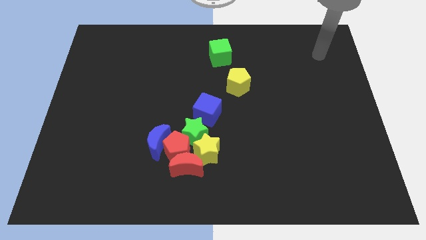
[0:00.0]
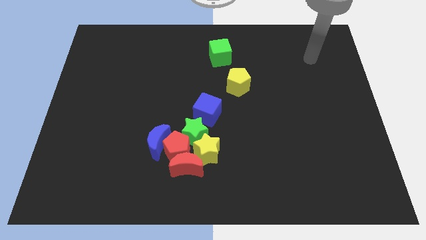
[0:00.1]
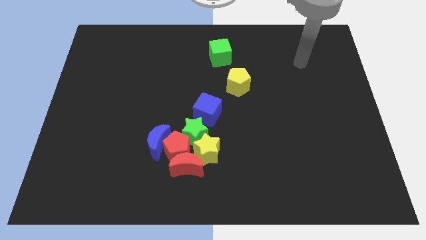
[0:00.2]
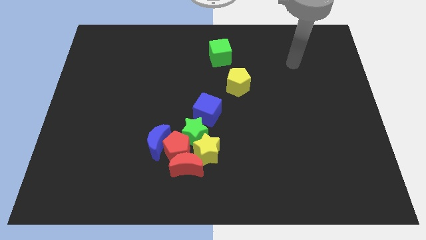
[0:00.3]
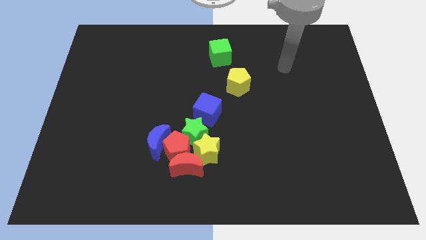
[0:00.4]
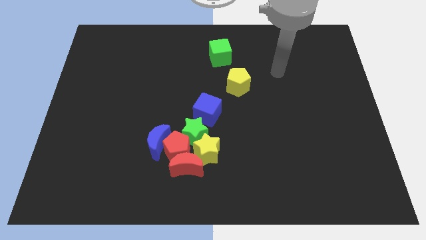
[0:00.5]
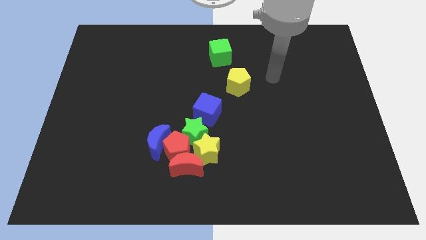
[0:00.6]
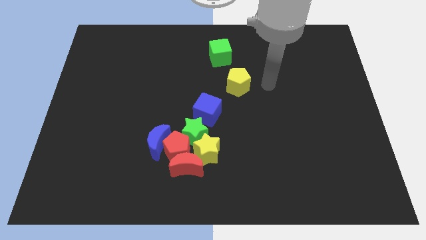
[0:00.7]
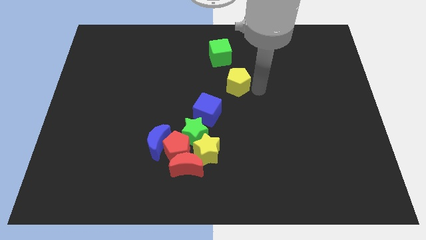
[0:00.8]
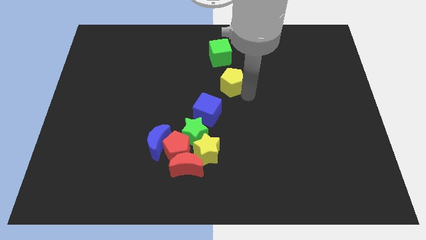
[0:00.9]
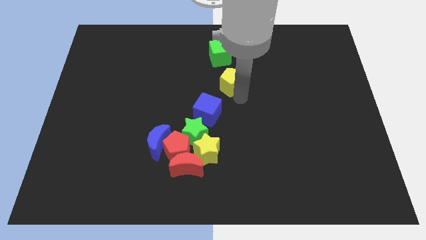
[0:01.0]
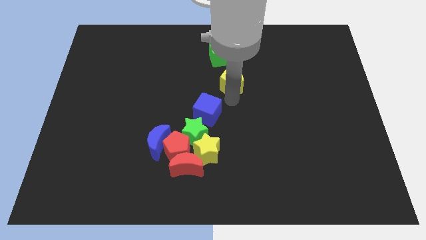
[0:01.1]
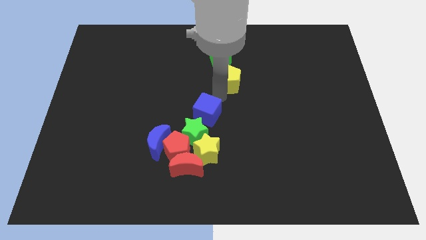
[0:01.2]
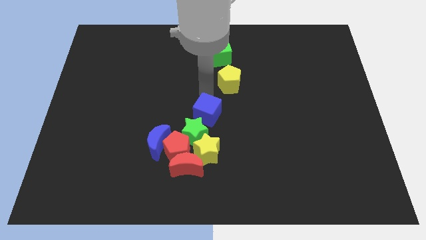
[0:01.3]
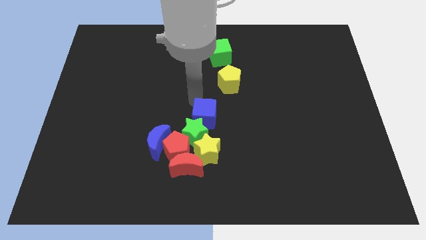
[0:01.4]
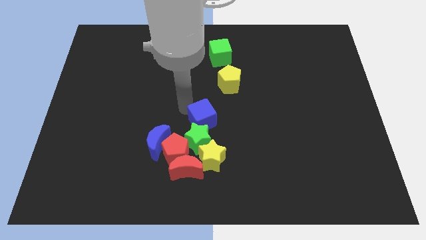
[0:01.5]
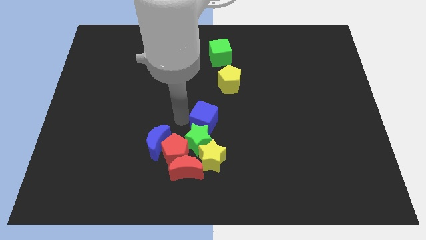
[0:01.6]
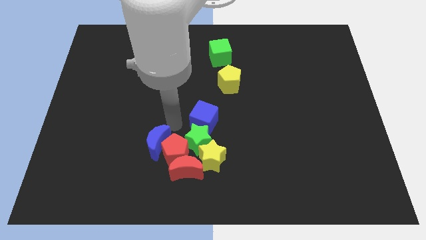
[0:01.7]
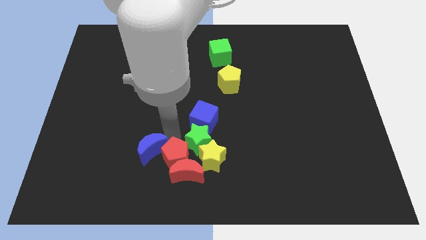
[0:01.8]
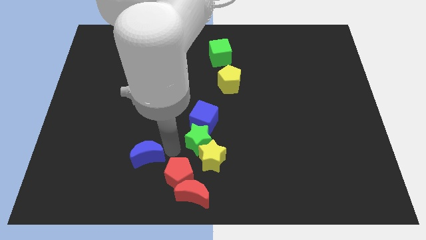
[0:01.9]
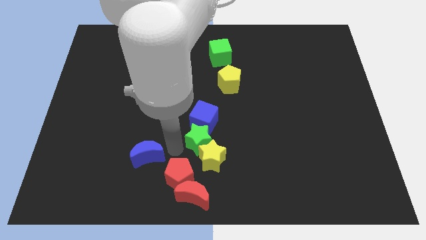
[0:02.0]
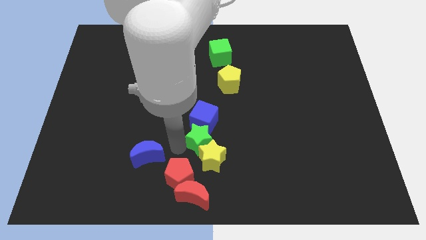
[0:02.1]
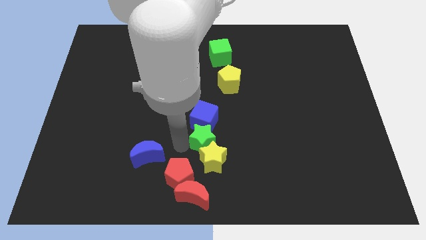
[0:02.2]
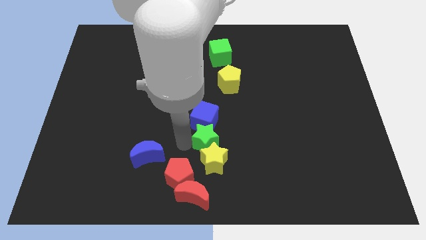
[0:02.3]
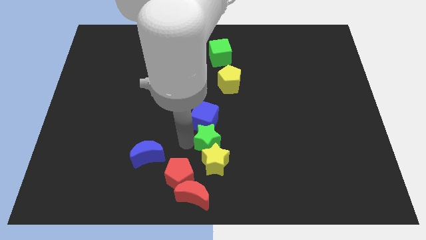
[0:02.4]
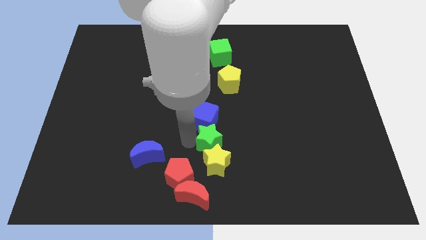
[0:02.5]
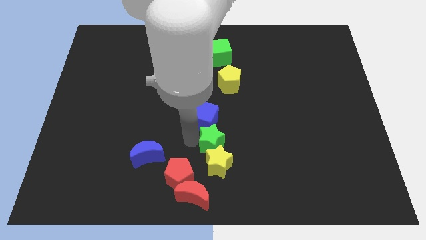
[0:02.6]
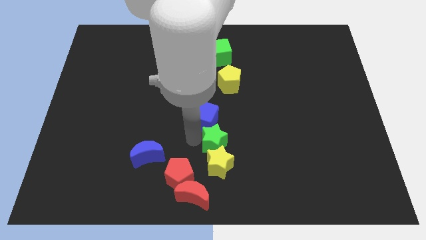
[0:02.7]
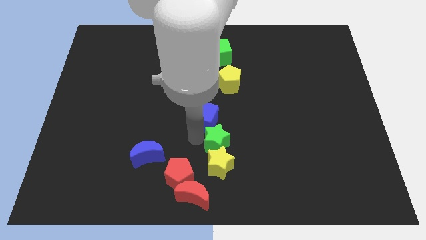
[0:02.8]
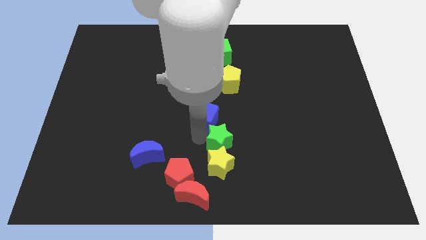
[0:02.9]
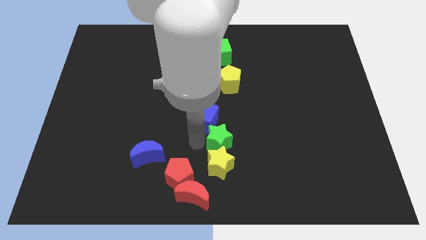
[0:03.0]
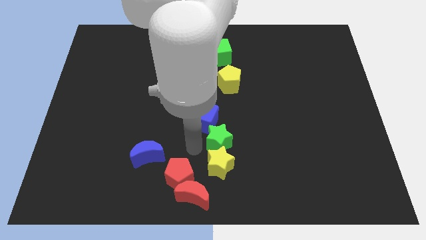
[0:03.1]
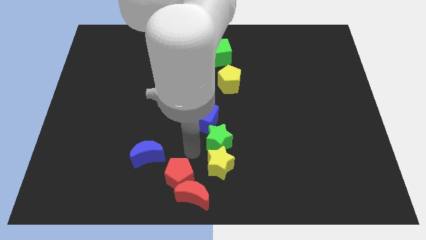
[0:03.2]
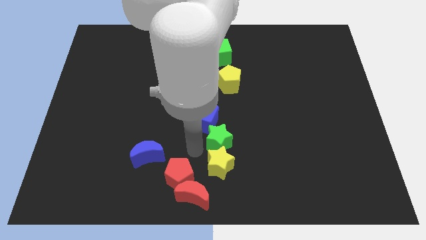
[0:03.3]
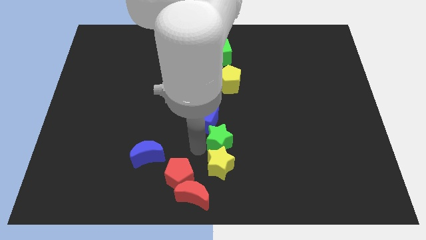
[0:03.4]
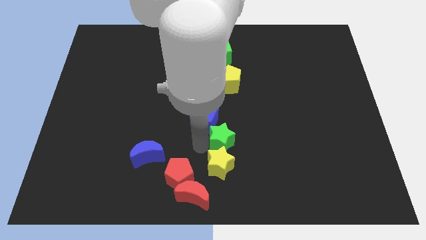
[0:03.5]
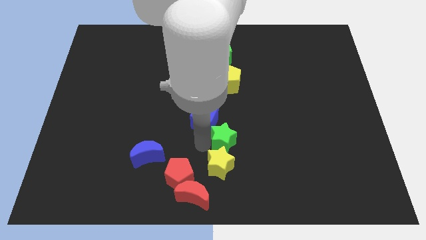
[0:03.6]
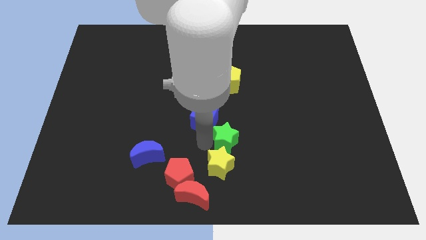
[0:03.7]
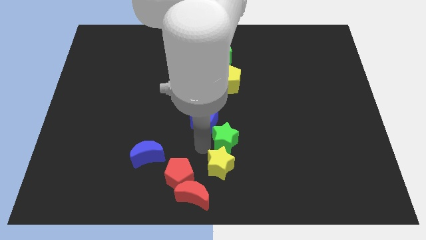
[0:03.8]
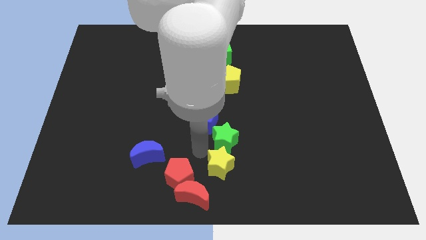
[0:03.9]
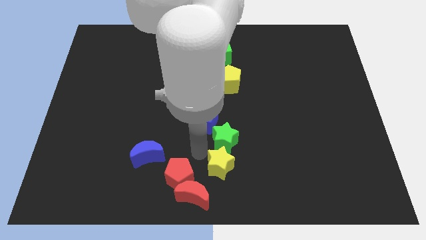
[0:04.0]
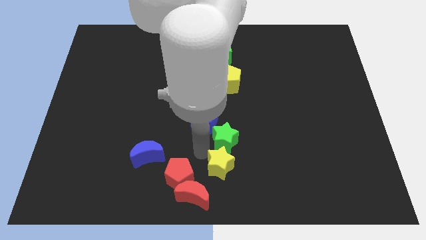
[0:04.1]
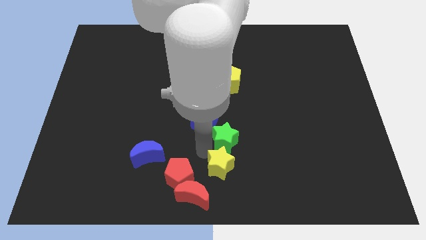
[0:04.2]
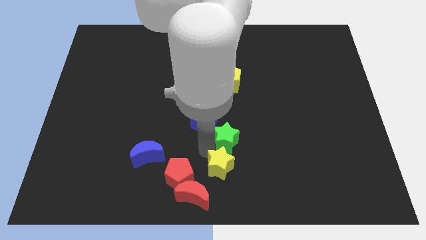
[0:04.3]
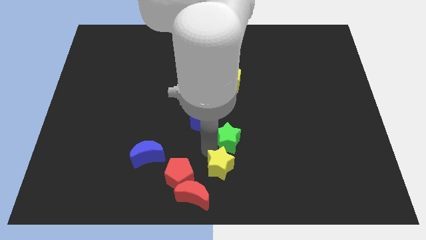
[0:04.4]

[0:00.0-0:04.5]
slightly slide the green star to the right

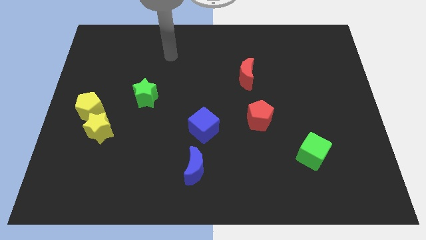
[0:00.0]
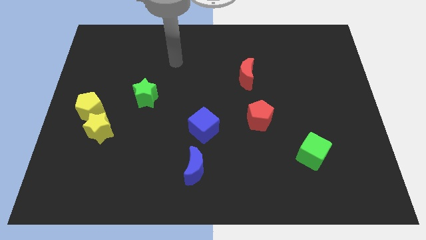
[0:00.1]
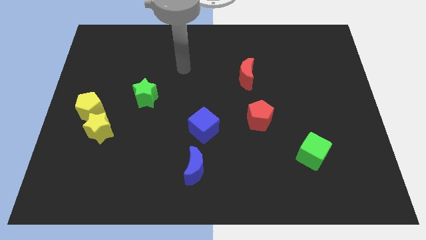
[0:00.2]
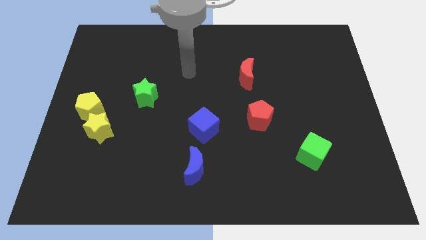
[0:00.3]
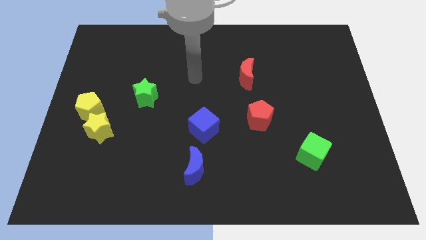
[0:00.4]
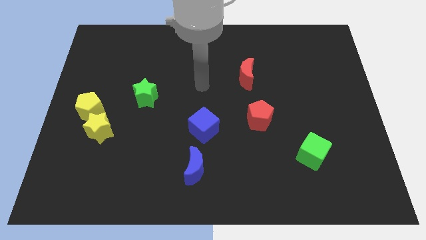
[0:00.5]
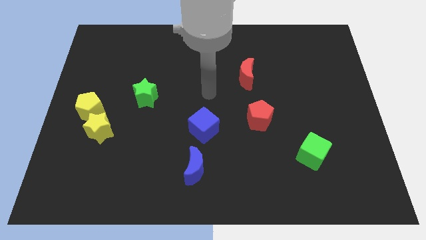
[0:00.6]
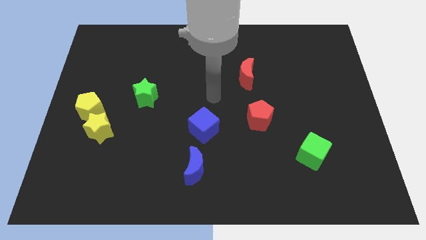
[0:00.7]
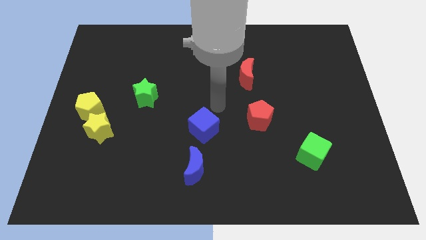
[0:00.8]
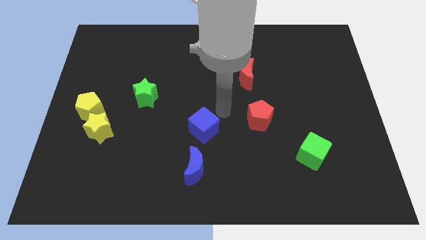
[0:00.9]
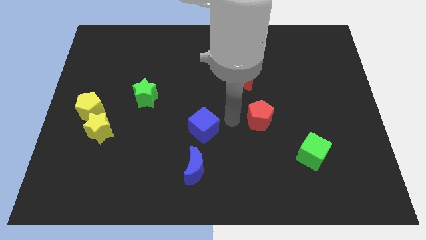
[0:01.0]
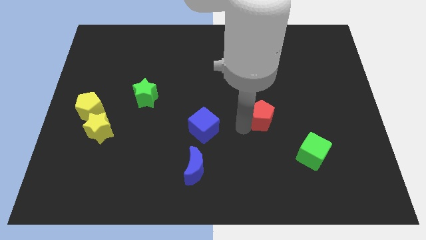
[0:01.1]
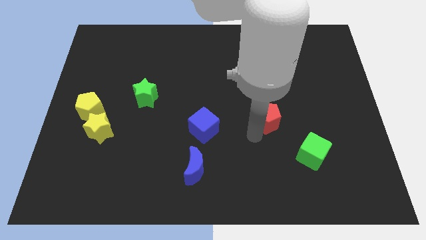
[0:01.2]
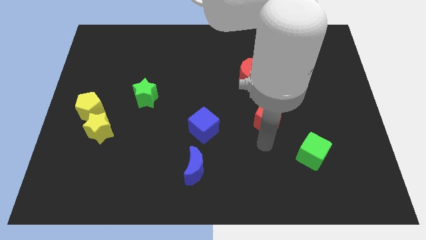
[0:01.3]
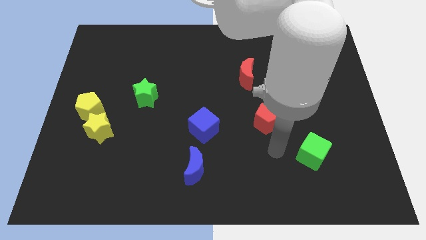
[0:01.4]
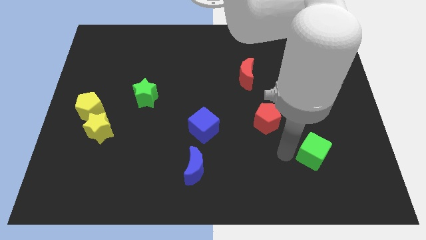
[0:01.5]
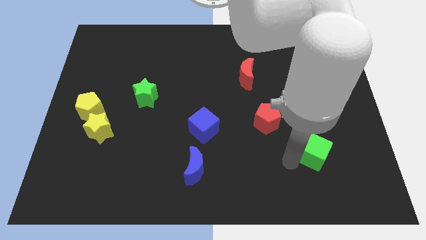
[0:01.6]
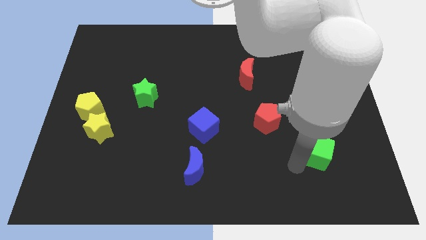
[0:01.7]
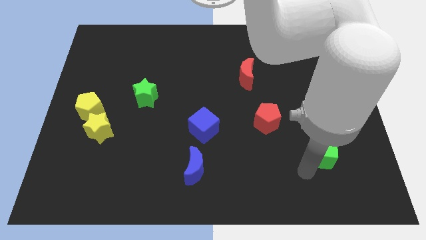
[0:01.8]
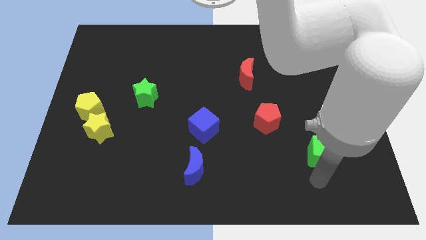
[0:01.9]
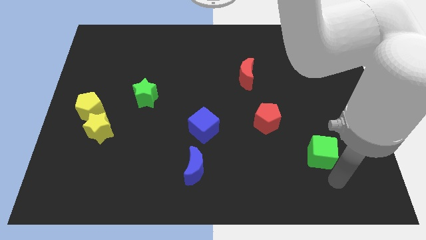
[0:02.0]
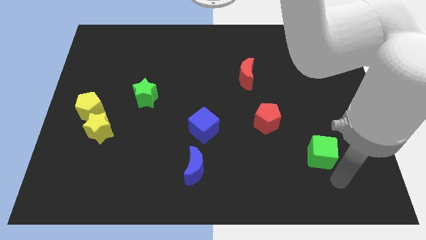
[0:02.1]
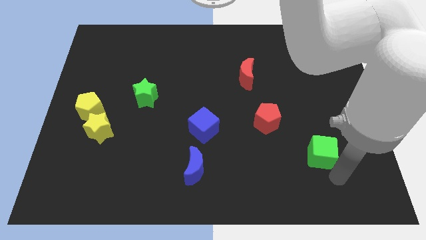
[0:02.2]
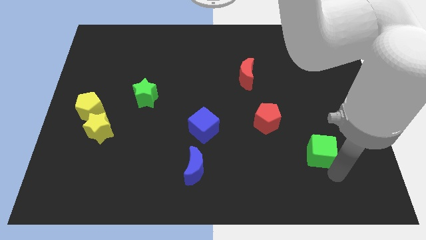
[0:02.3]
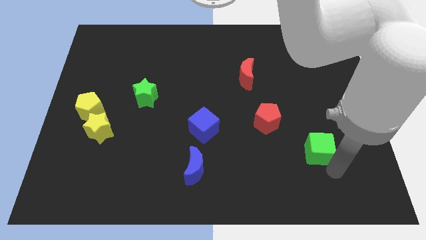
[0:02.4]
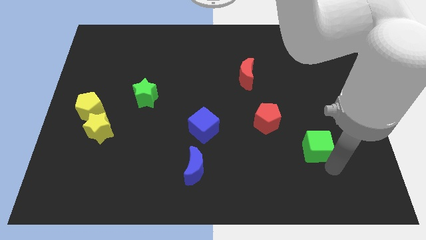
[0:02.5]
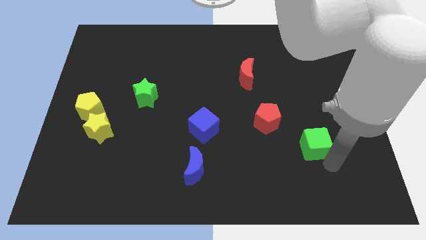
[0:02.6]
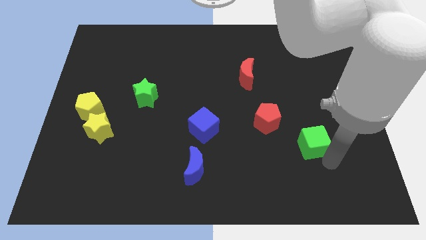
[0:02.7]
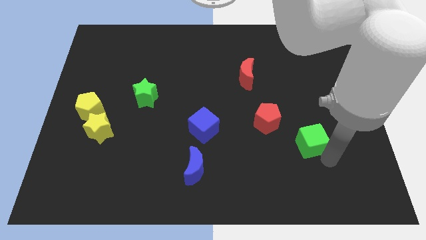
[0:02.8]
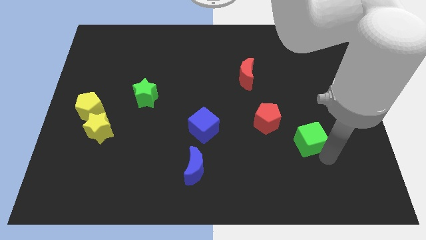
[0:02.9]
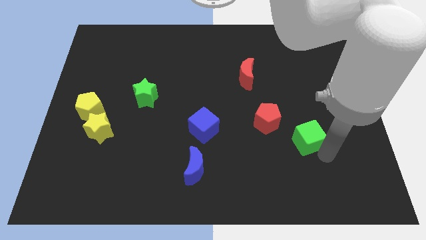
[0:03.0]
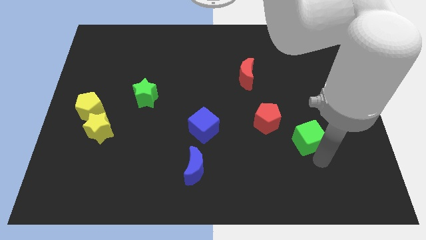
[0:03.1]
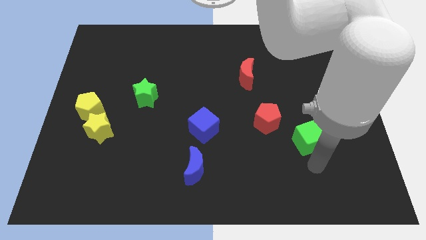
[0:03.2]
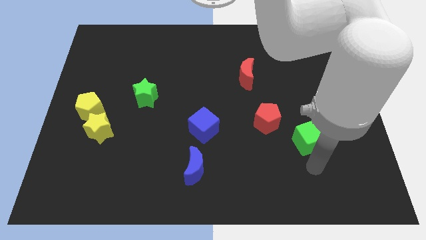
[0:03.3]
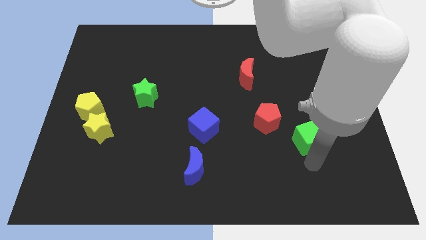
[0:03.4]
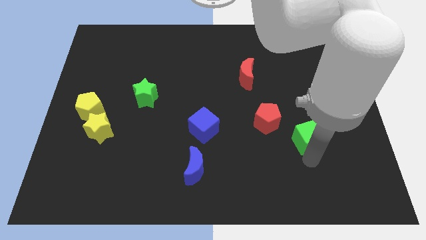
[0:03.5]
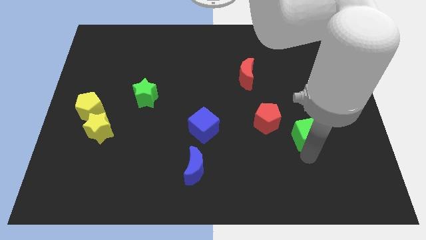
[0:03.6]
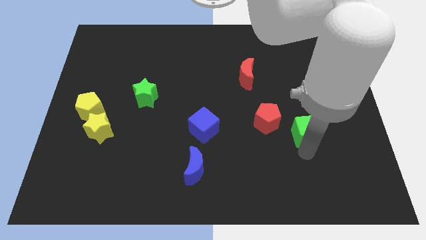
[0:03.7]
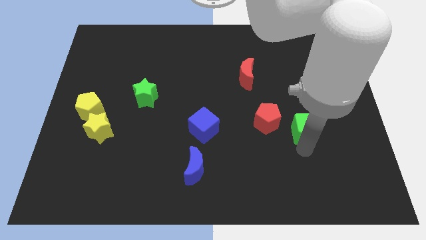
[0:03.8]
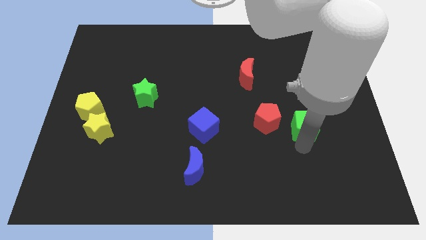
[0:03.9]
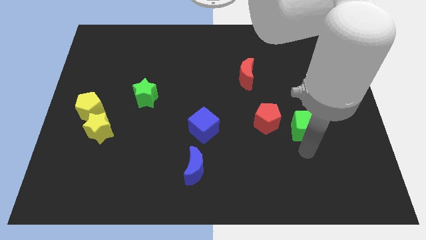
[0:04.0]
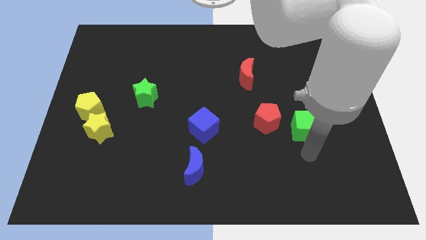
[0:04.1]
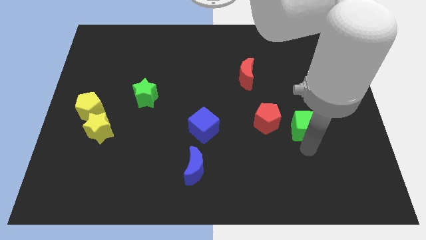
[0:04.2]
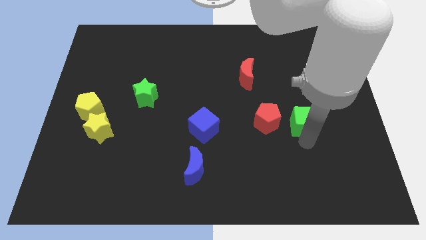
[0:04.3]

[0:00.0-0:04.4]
slightly slide the green cube upwards
